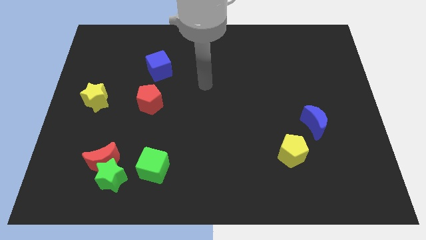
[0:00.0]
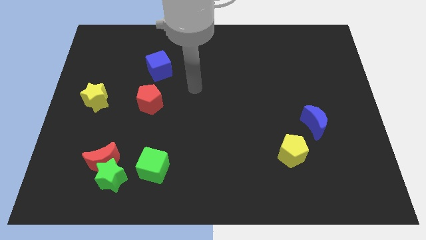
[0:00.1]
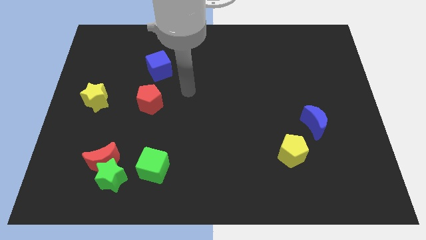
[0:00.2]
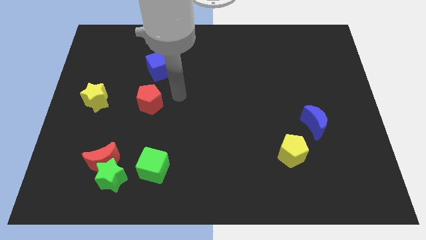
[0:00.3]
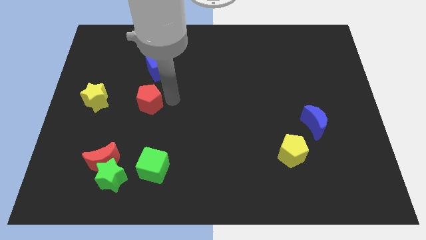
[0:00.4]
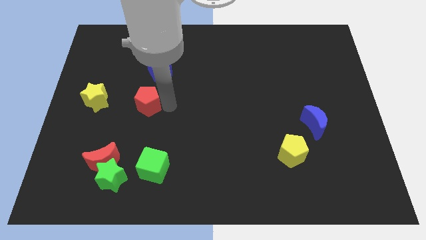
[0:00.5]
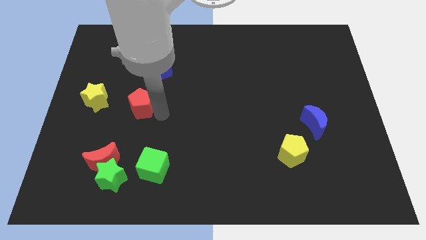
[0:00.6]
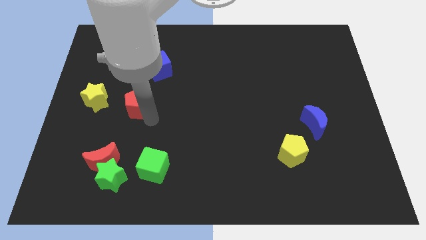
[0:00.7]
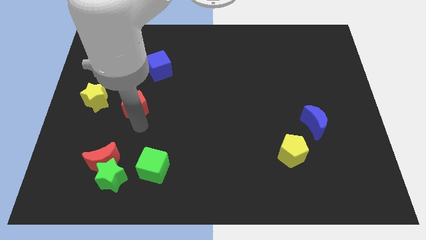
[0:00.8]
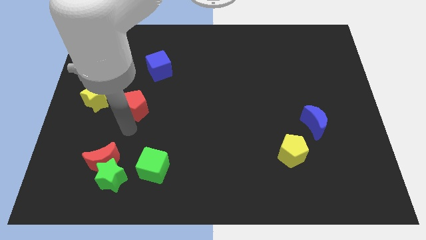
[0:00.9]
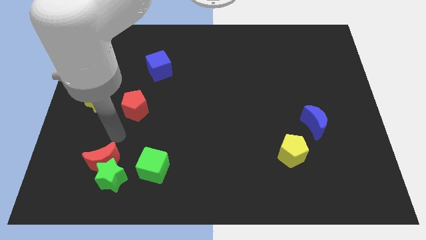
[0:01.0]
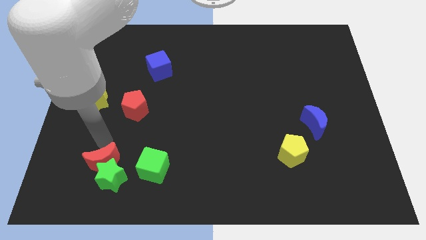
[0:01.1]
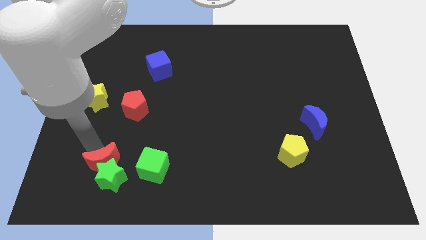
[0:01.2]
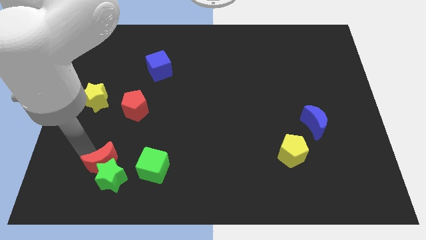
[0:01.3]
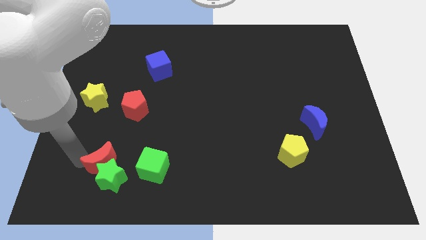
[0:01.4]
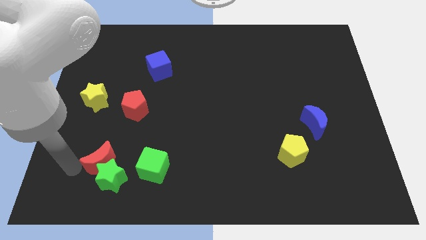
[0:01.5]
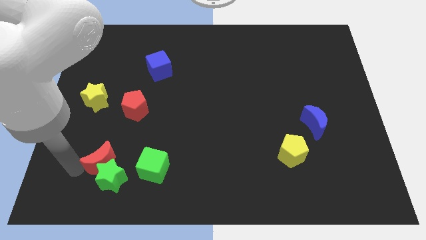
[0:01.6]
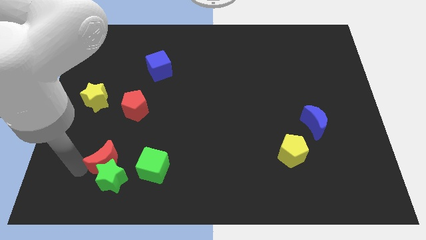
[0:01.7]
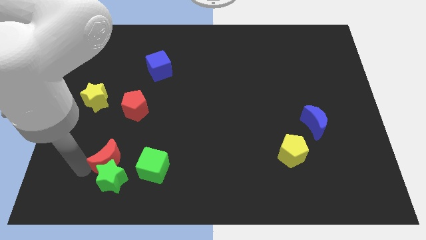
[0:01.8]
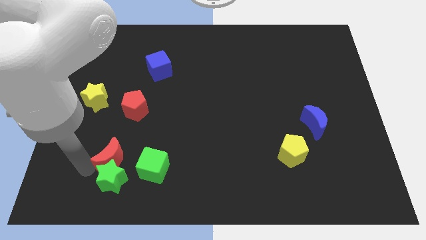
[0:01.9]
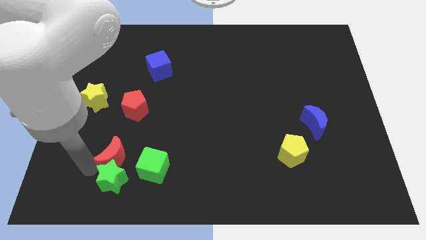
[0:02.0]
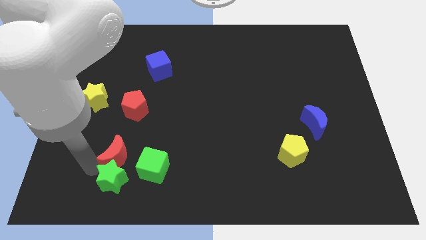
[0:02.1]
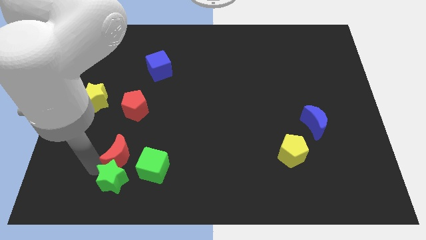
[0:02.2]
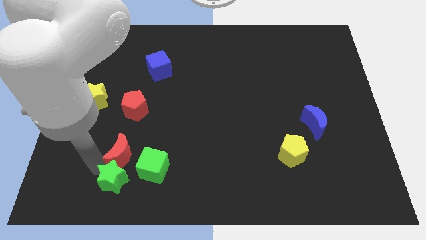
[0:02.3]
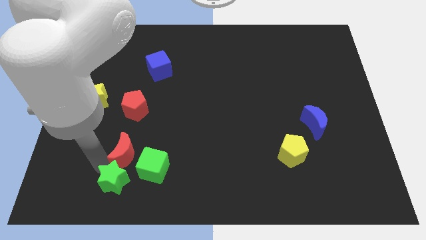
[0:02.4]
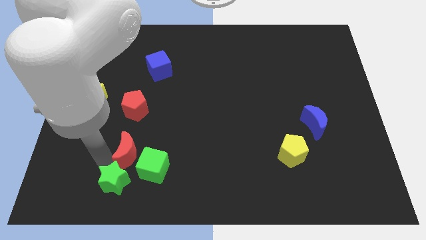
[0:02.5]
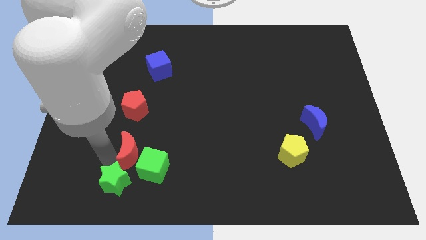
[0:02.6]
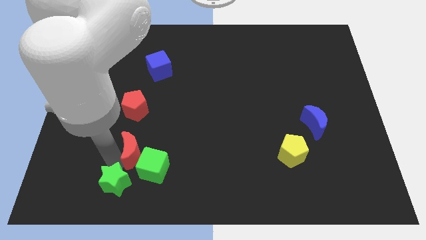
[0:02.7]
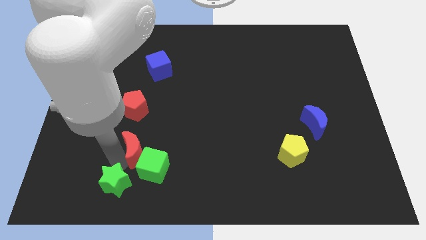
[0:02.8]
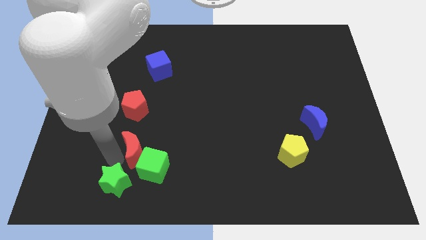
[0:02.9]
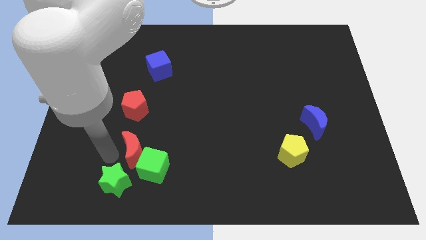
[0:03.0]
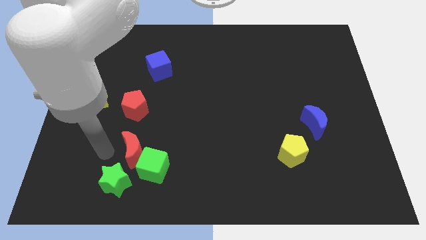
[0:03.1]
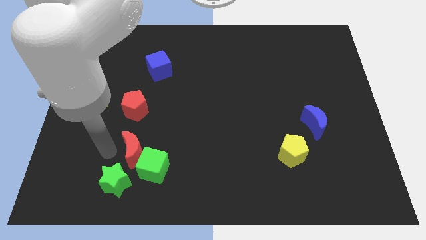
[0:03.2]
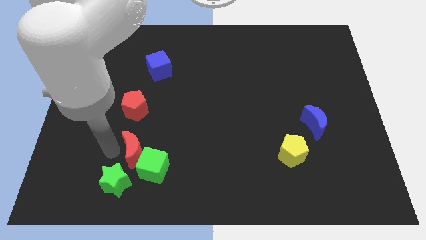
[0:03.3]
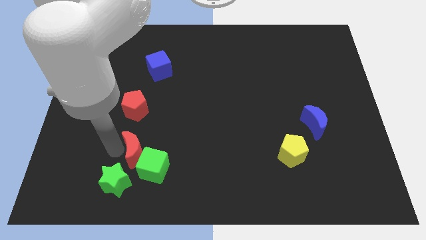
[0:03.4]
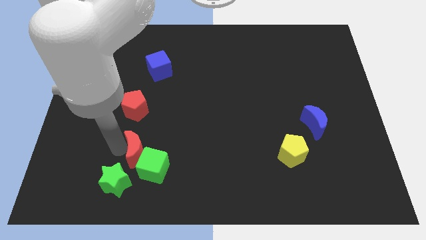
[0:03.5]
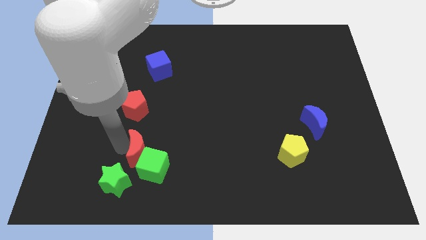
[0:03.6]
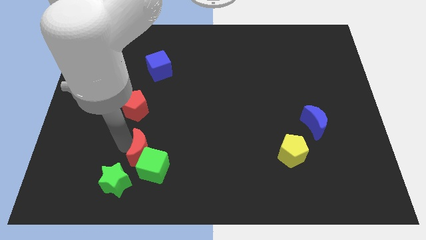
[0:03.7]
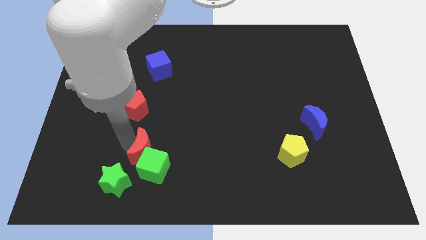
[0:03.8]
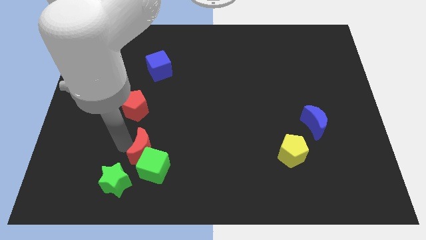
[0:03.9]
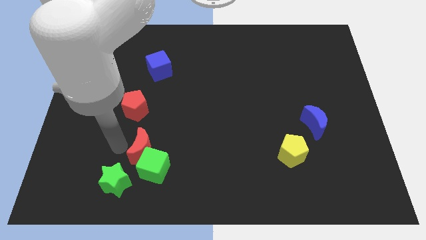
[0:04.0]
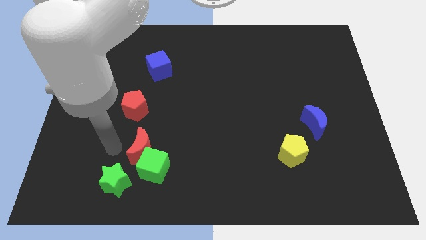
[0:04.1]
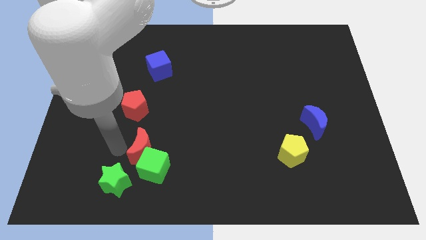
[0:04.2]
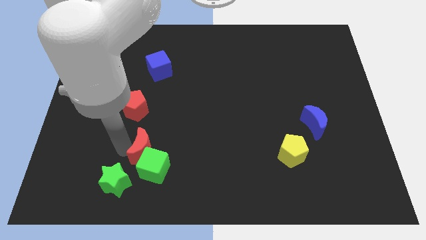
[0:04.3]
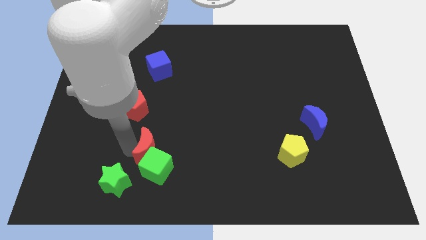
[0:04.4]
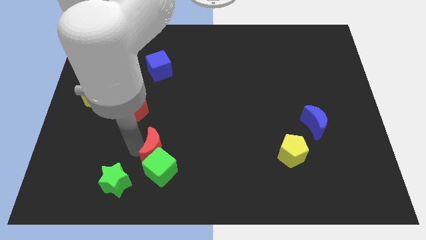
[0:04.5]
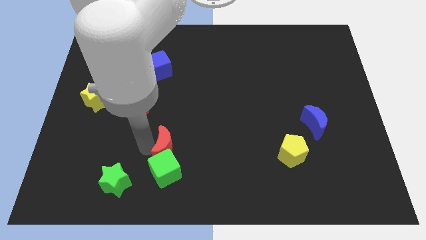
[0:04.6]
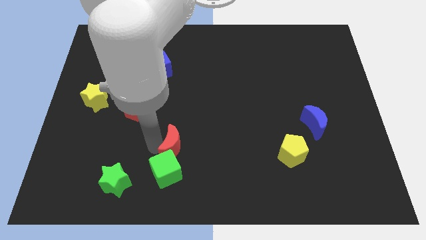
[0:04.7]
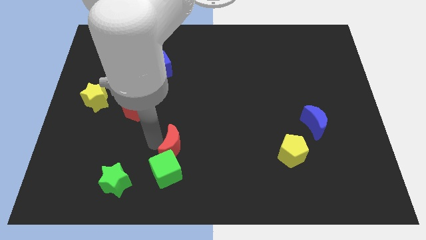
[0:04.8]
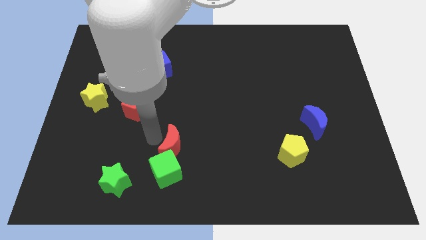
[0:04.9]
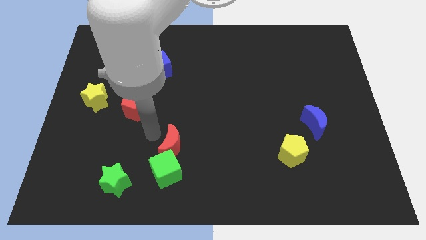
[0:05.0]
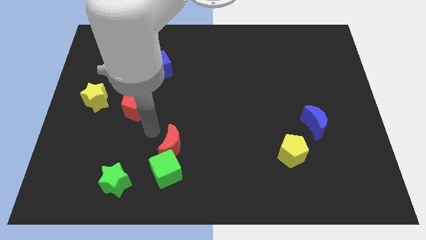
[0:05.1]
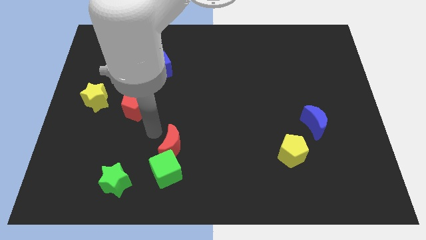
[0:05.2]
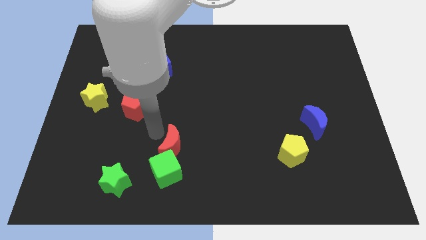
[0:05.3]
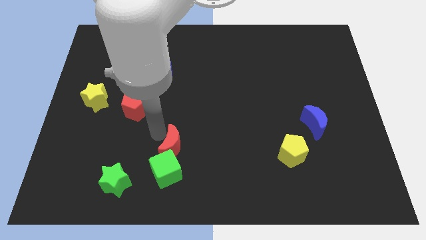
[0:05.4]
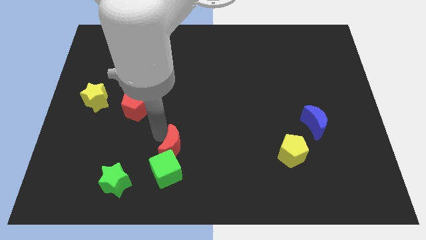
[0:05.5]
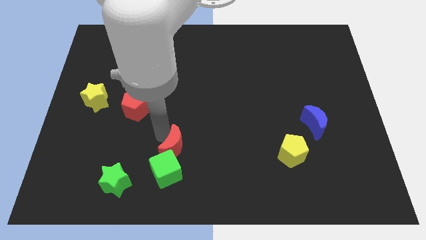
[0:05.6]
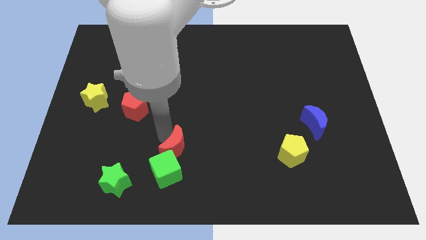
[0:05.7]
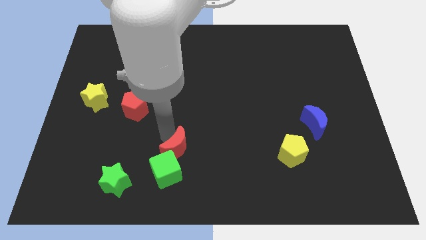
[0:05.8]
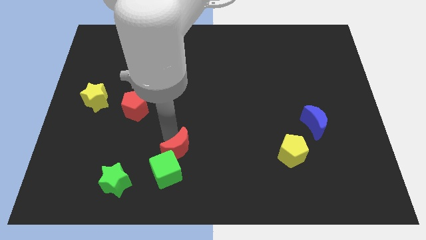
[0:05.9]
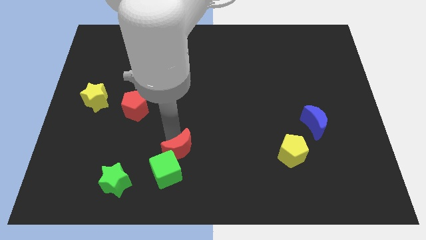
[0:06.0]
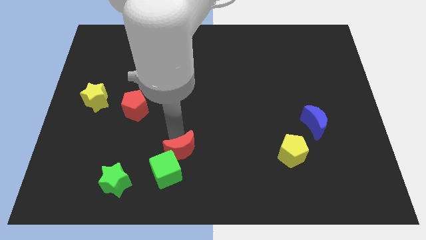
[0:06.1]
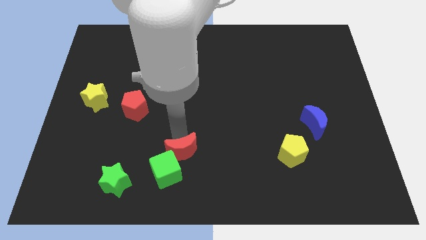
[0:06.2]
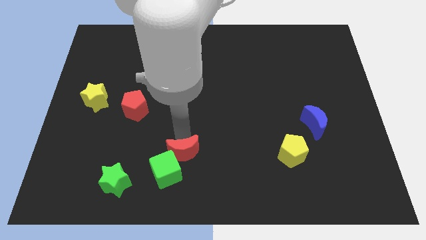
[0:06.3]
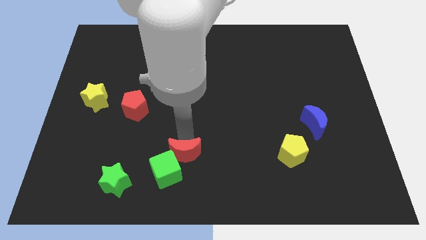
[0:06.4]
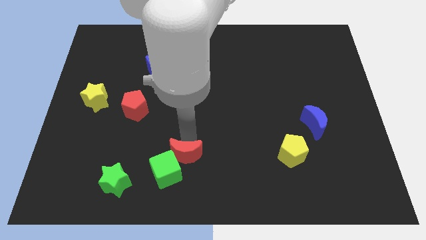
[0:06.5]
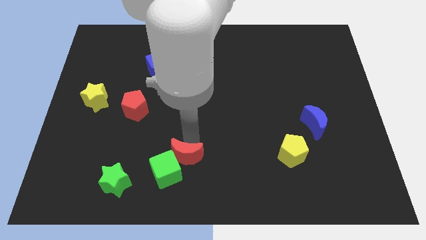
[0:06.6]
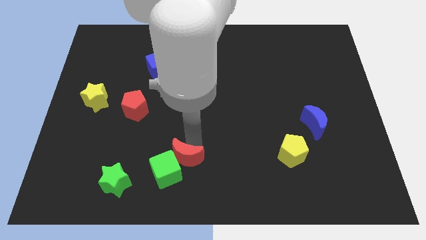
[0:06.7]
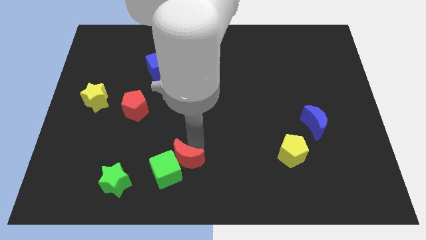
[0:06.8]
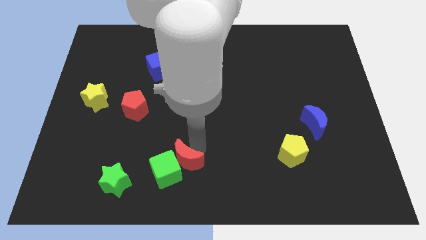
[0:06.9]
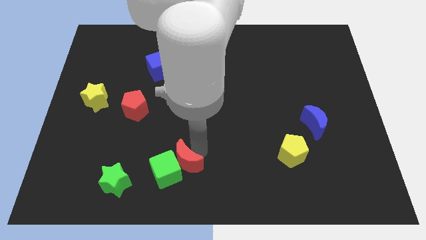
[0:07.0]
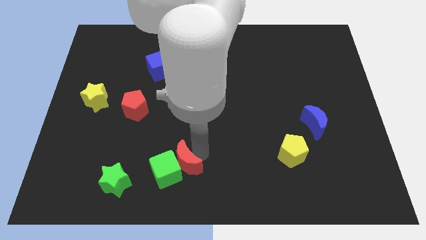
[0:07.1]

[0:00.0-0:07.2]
slide the red moon to the right side of the green star
